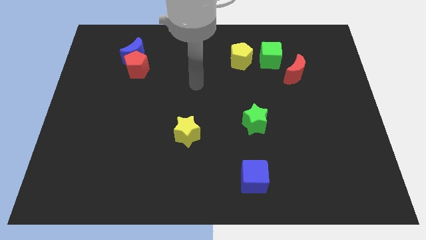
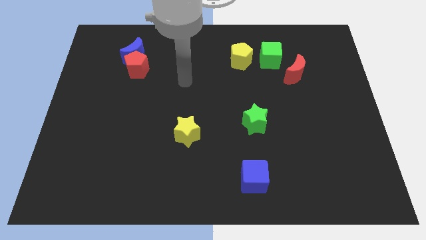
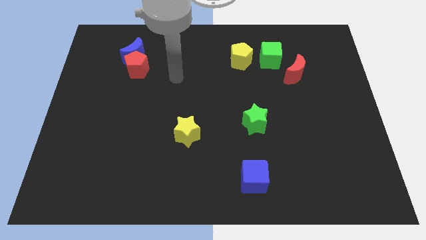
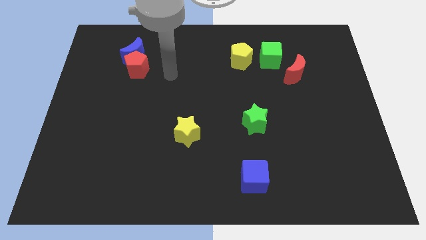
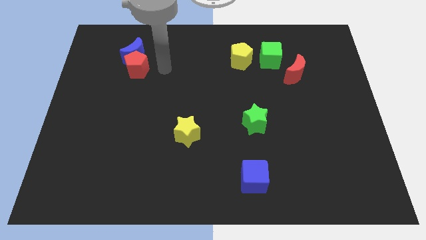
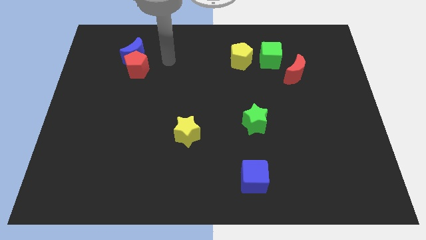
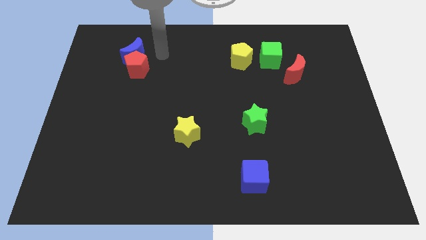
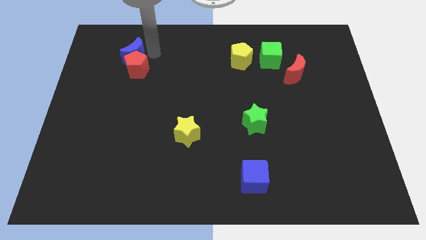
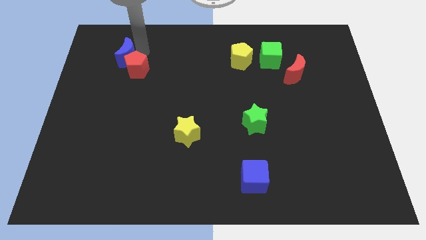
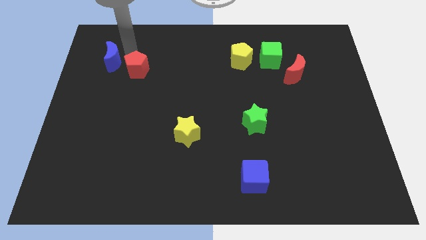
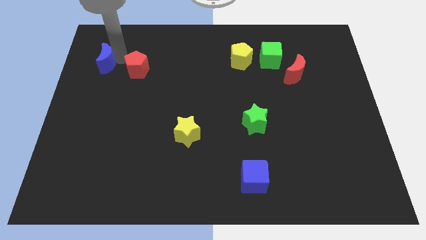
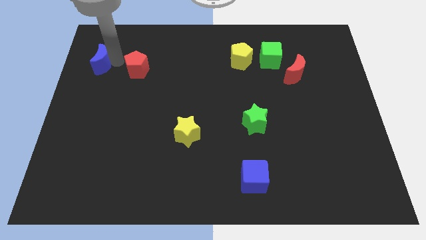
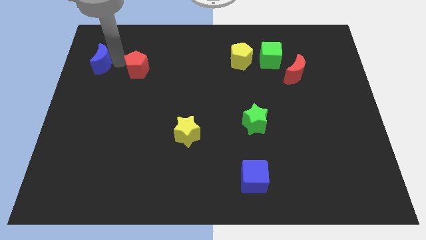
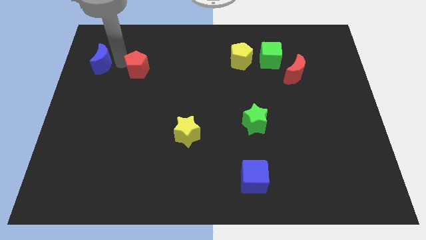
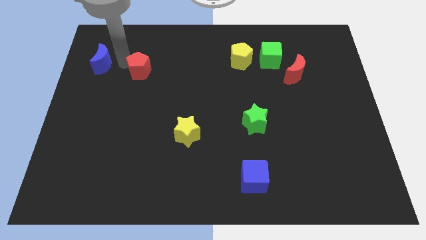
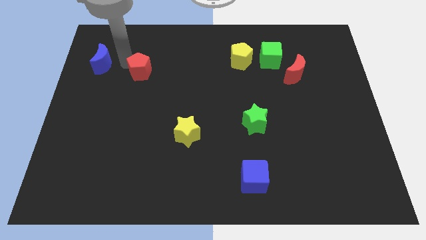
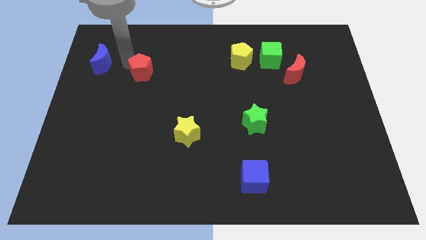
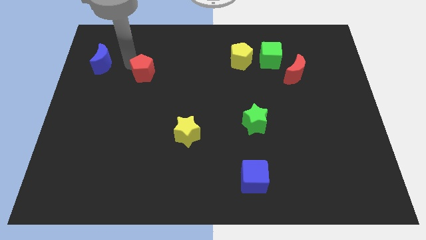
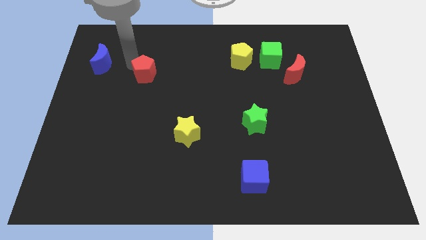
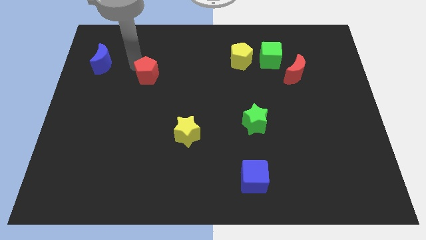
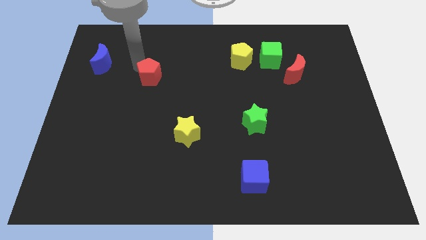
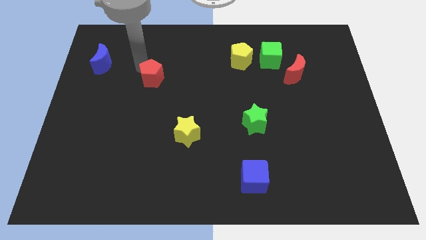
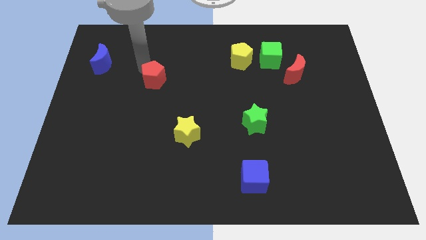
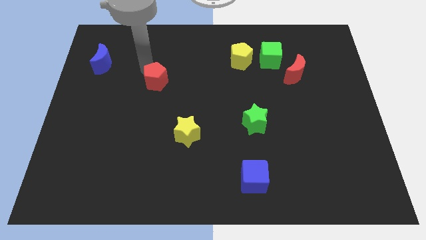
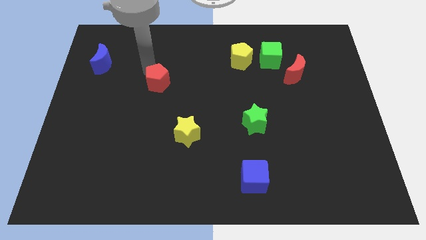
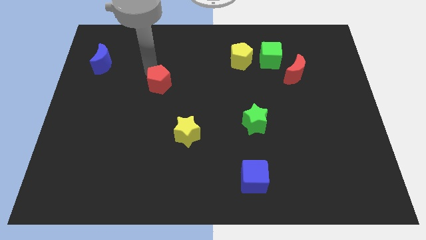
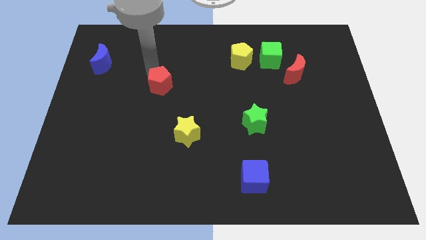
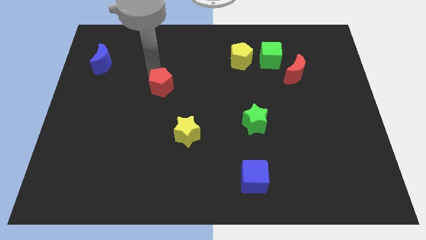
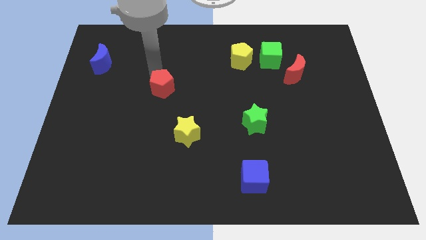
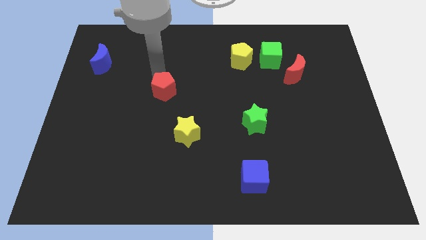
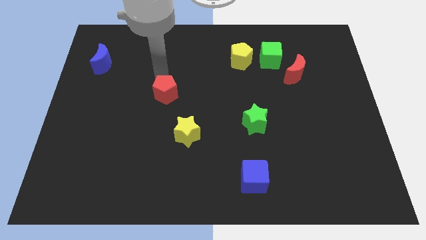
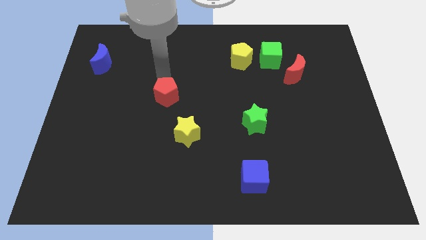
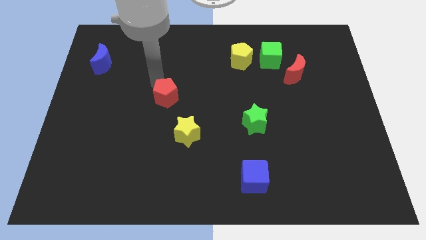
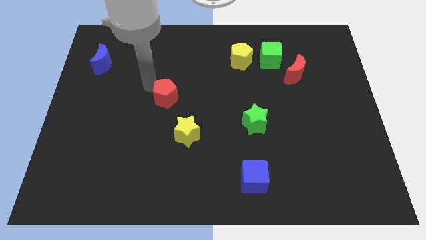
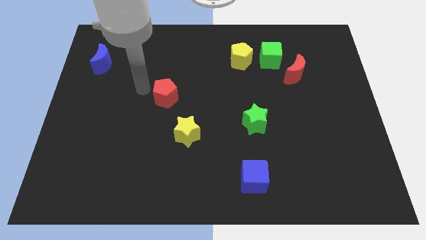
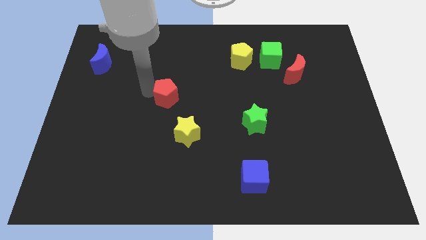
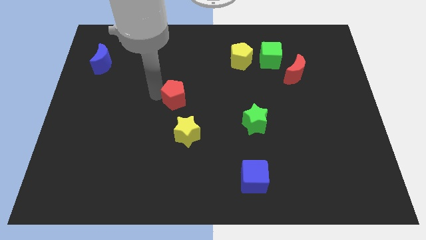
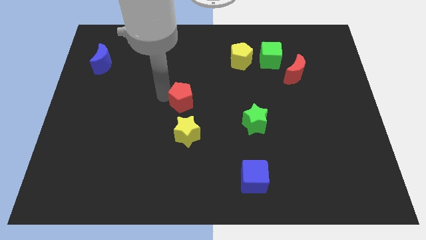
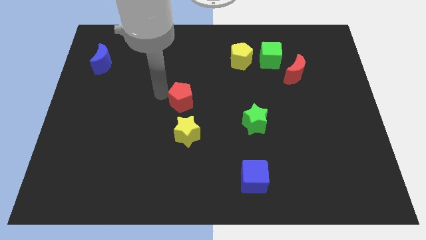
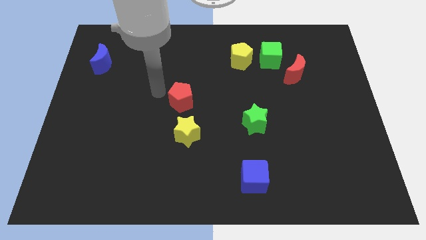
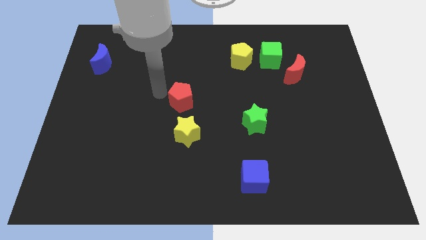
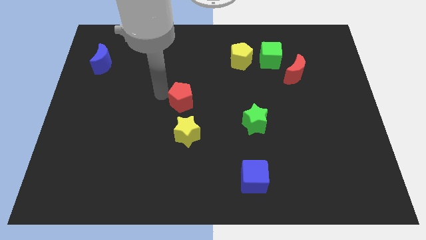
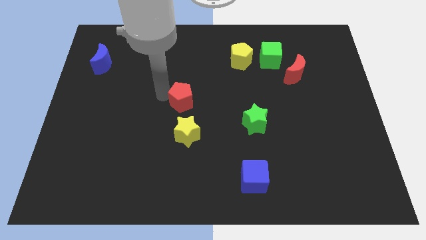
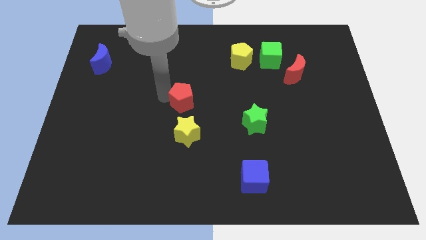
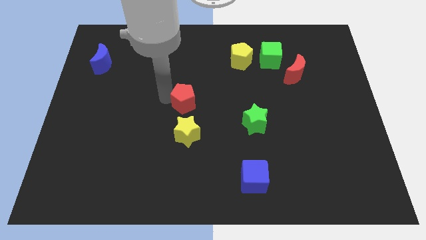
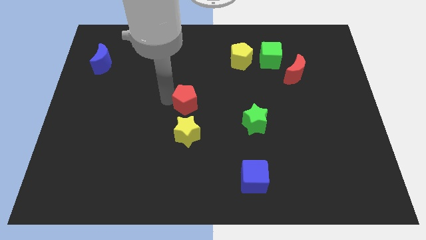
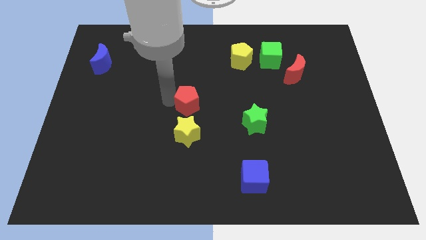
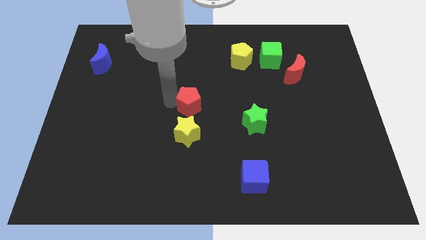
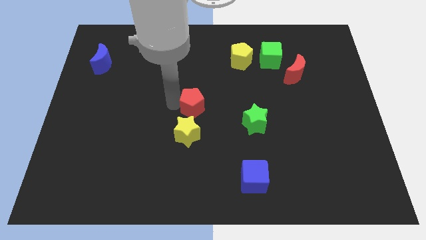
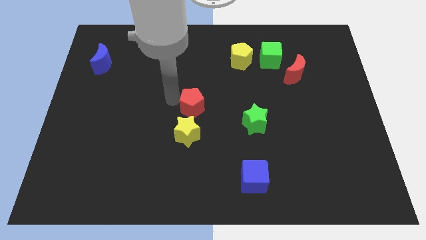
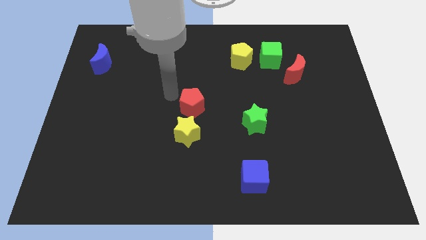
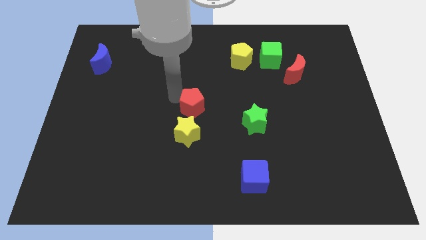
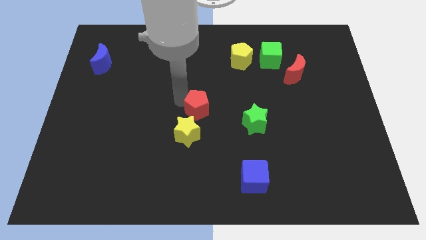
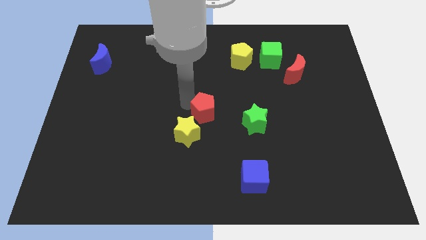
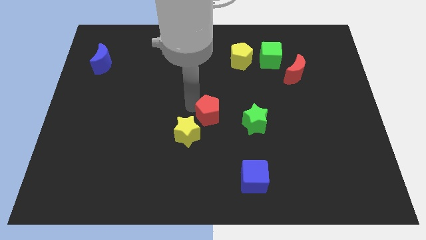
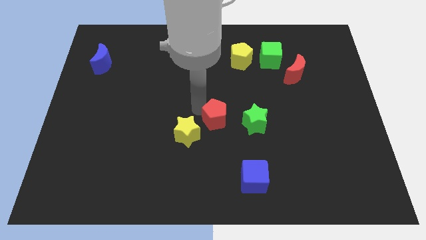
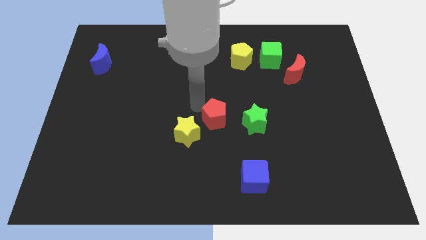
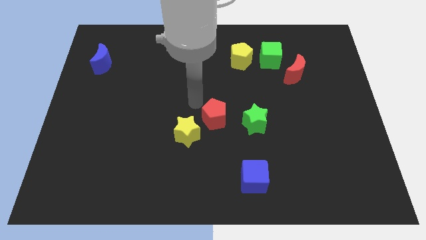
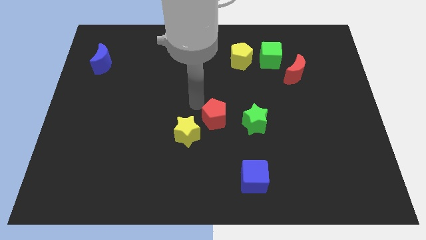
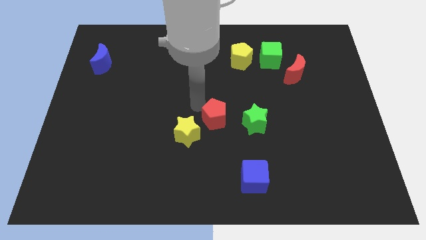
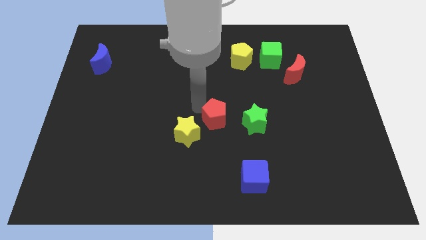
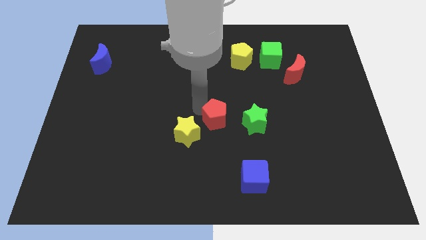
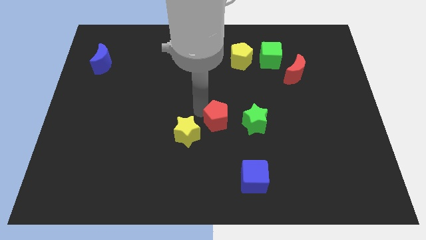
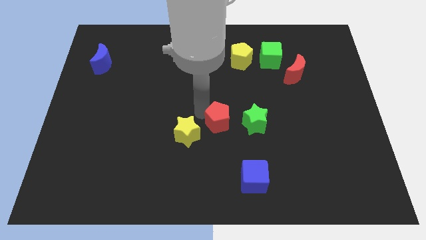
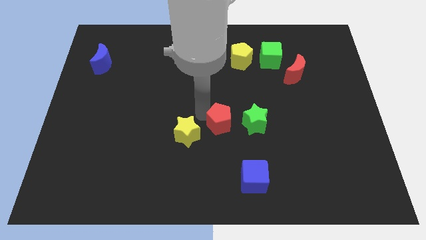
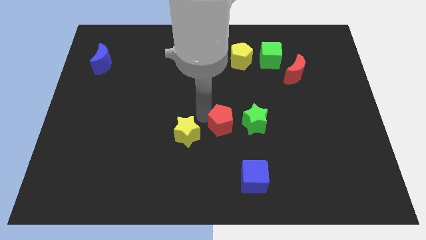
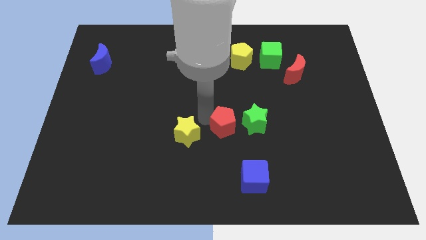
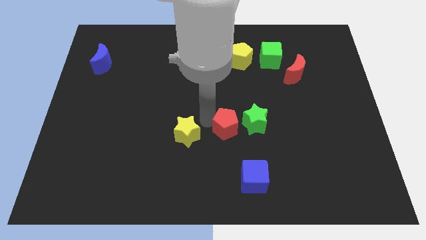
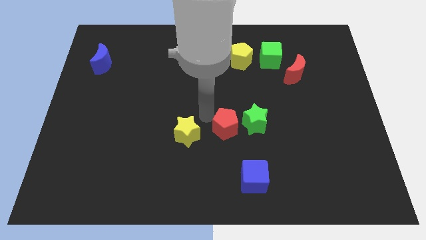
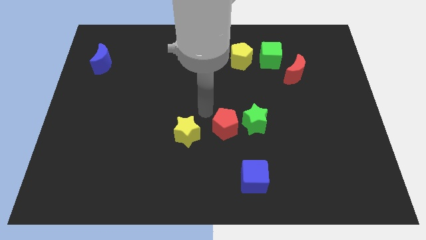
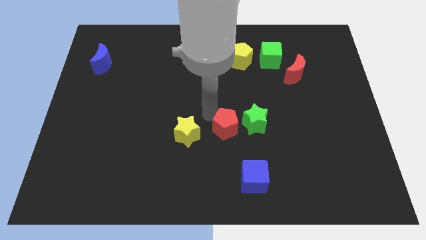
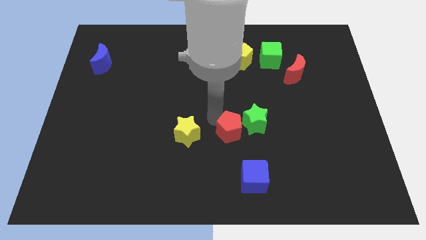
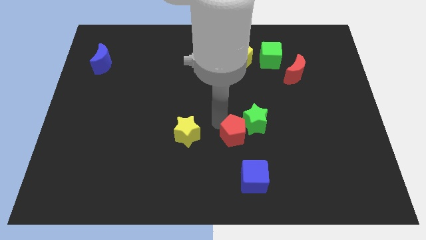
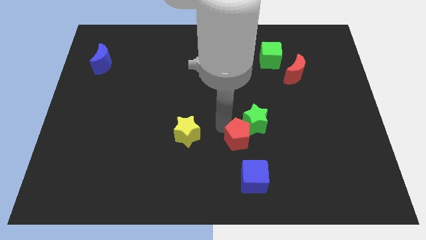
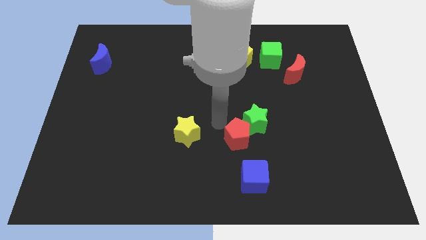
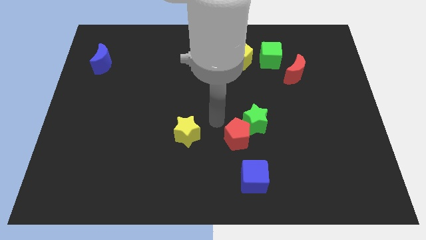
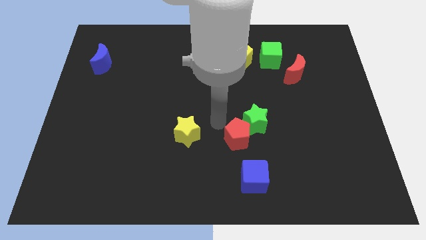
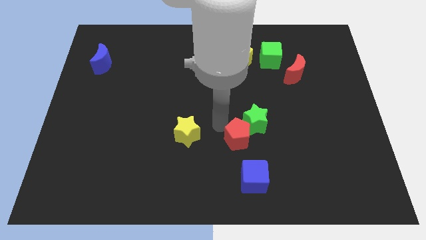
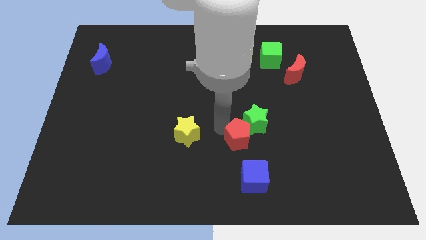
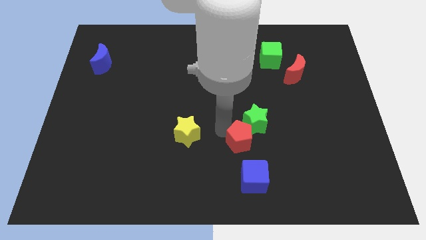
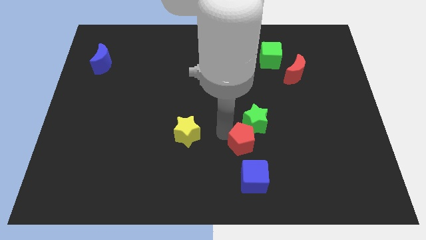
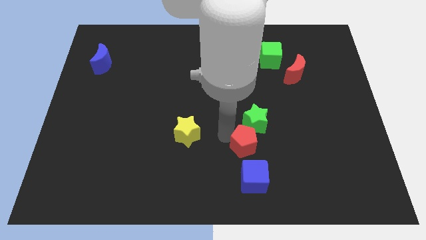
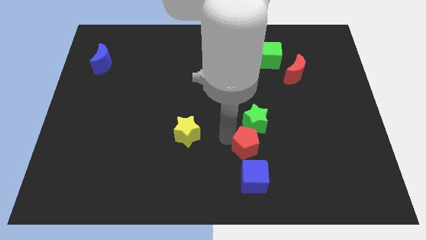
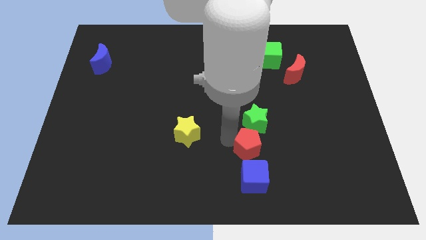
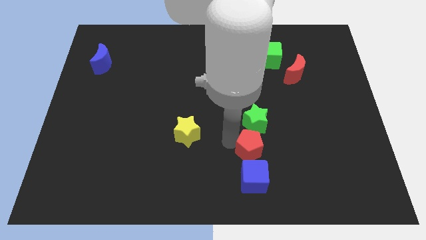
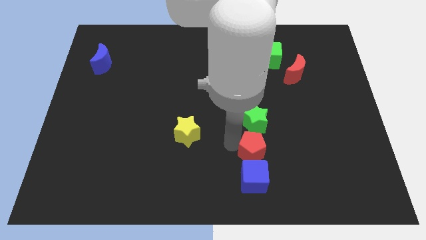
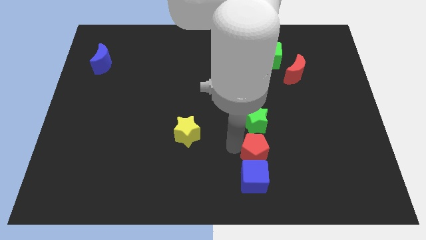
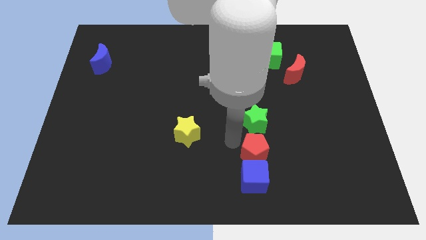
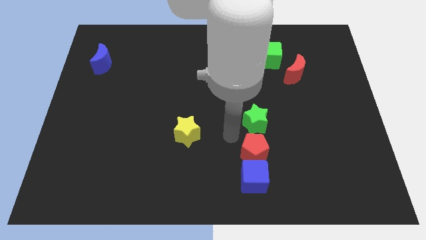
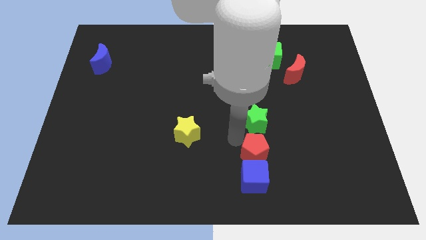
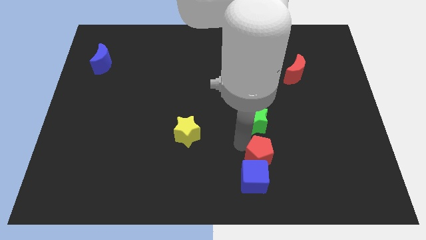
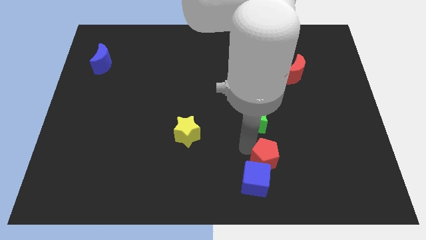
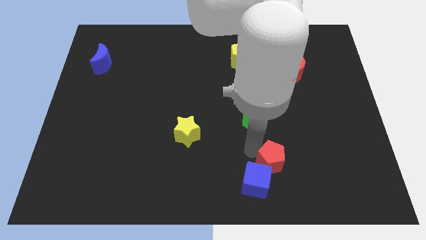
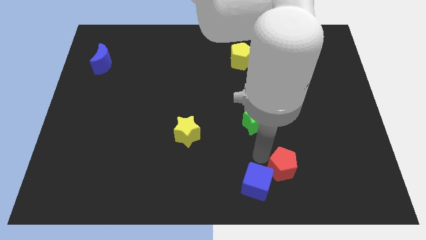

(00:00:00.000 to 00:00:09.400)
slide the red pentagon to the right of the blue cube
